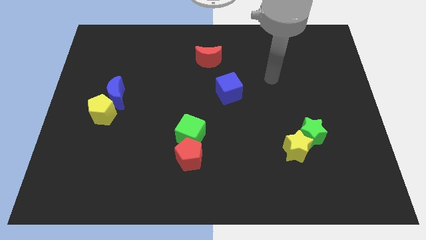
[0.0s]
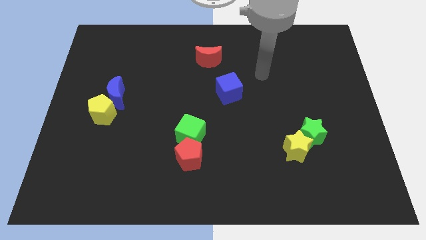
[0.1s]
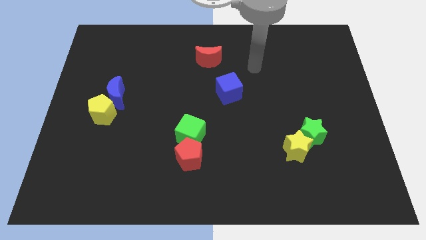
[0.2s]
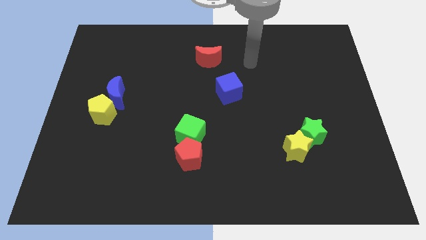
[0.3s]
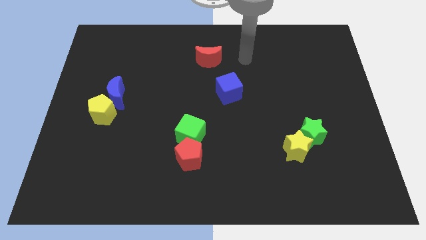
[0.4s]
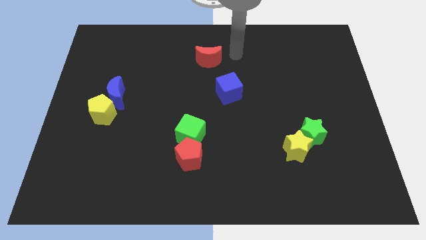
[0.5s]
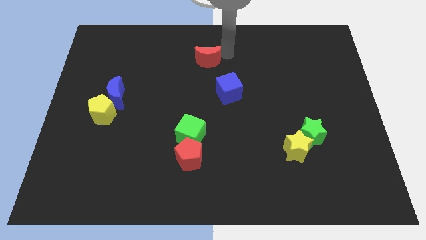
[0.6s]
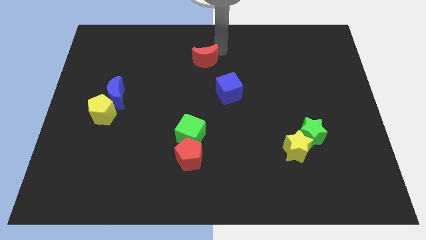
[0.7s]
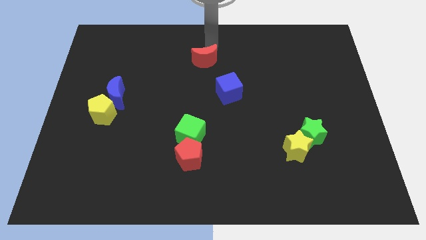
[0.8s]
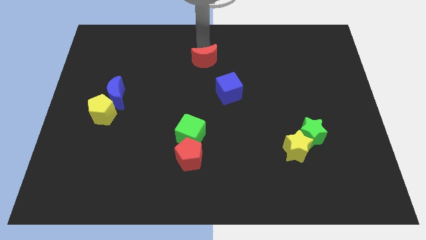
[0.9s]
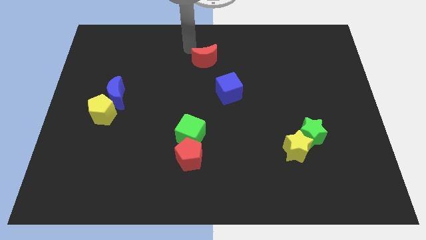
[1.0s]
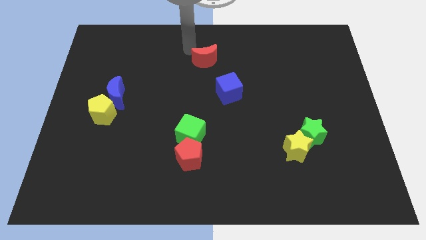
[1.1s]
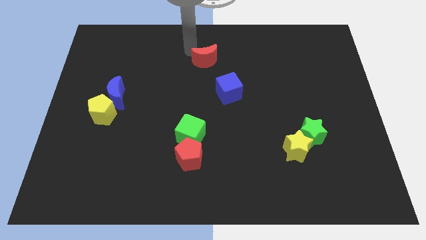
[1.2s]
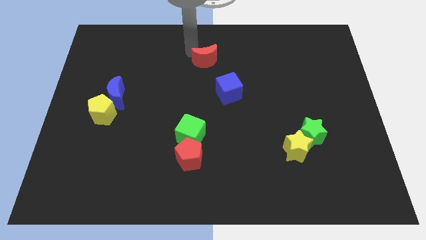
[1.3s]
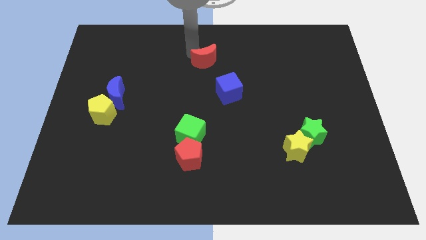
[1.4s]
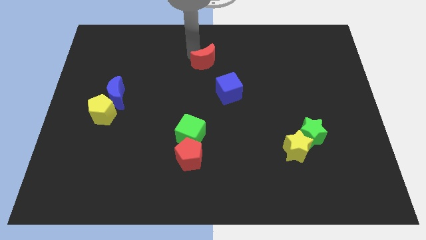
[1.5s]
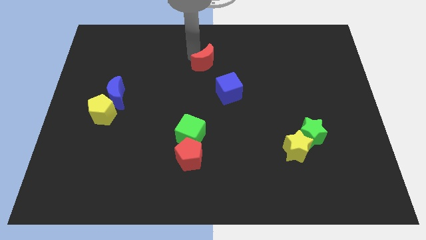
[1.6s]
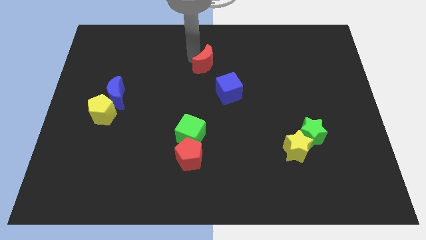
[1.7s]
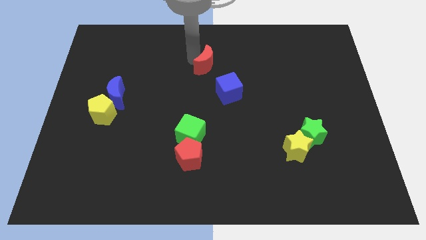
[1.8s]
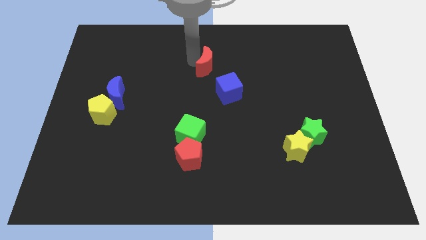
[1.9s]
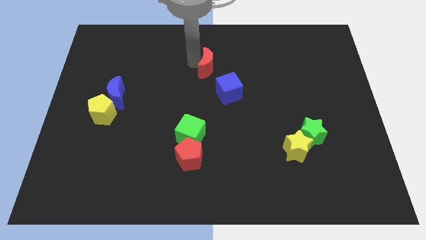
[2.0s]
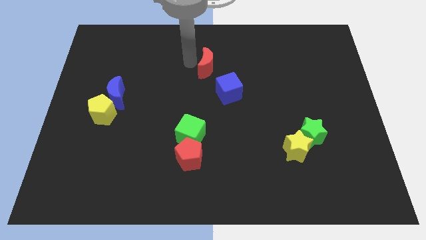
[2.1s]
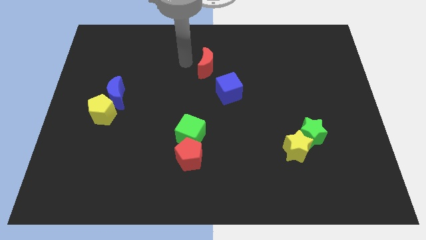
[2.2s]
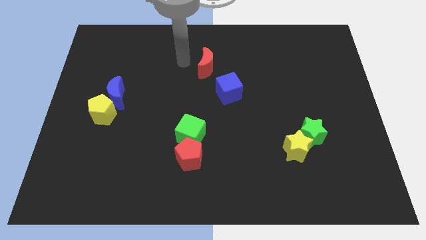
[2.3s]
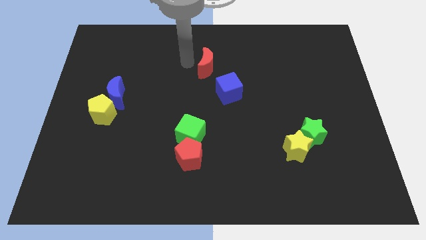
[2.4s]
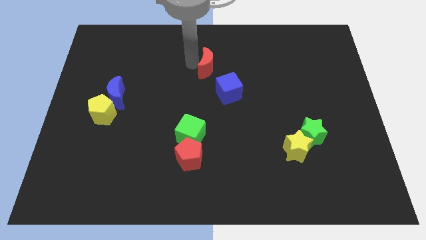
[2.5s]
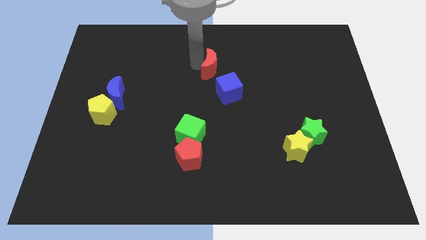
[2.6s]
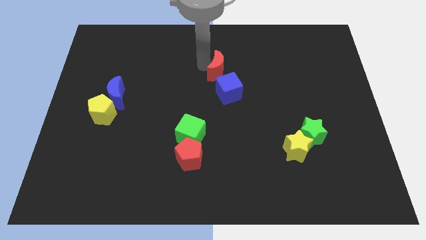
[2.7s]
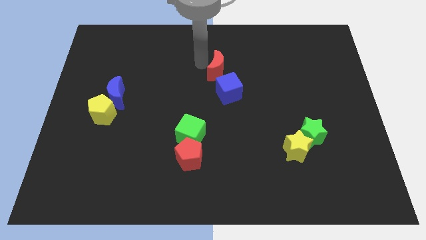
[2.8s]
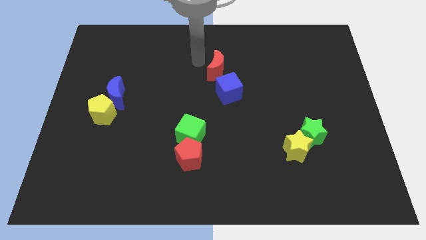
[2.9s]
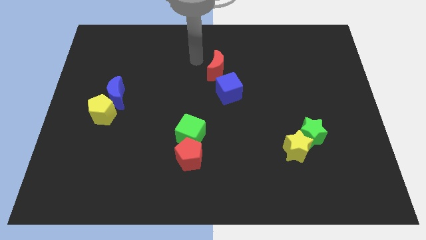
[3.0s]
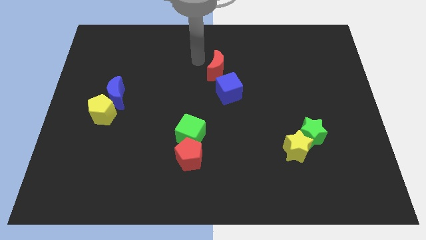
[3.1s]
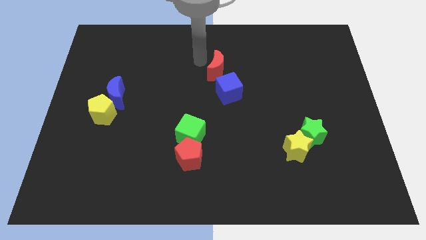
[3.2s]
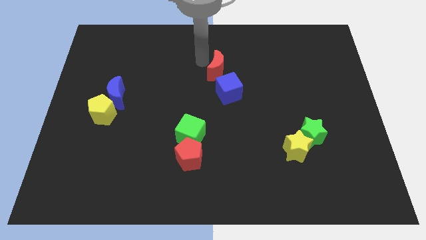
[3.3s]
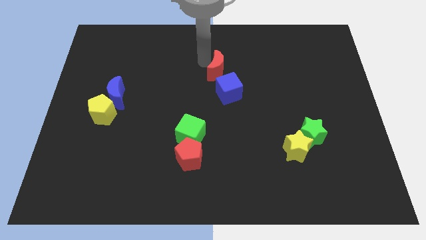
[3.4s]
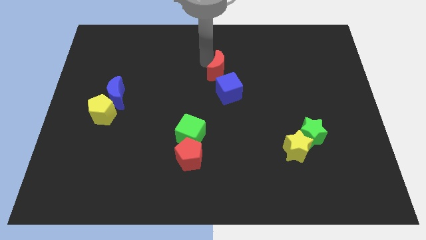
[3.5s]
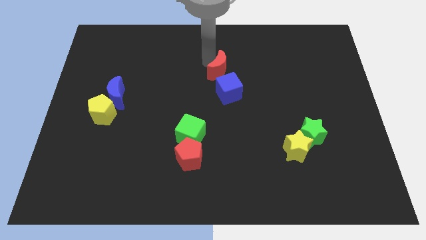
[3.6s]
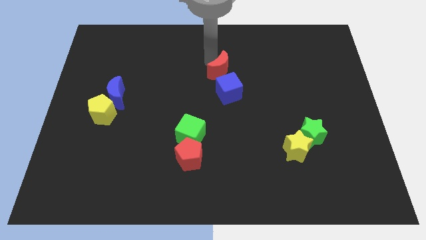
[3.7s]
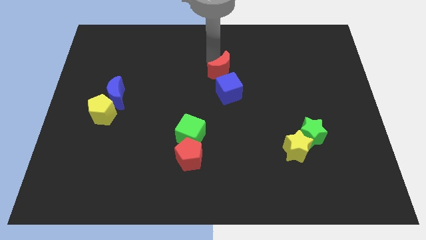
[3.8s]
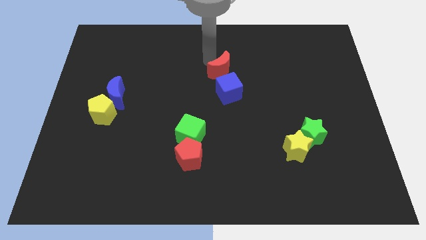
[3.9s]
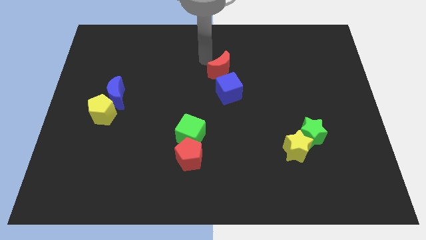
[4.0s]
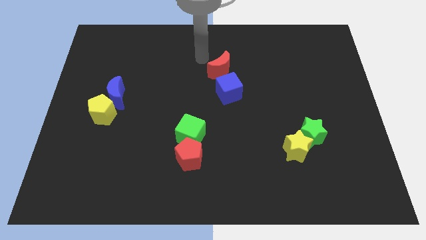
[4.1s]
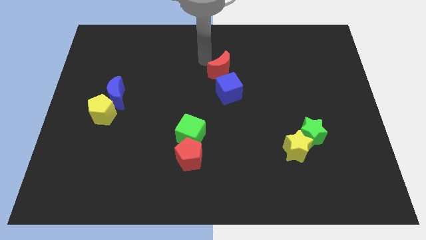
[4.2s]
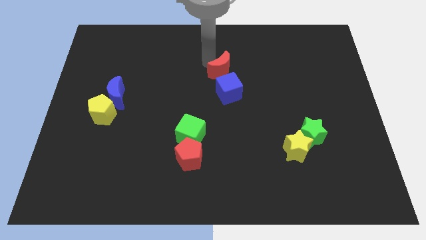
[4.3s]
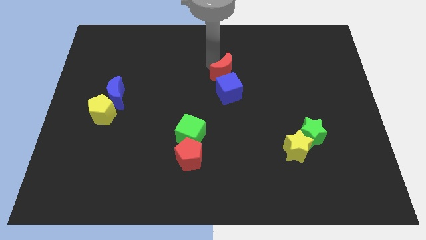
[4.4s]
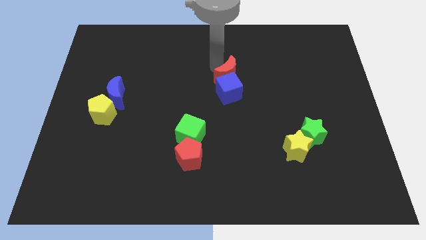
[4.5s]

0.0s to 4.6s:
move the red moon somewhat downwards and right

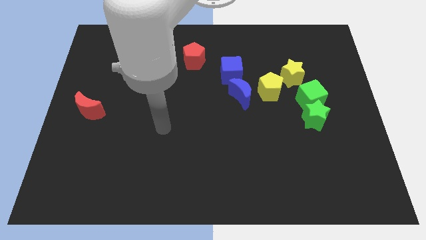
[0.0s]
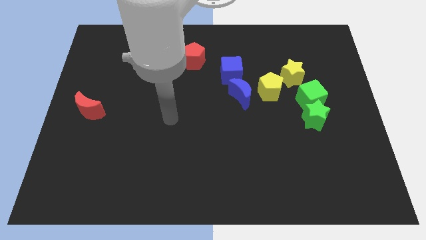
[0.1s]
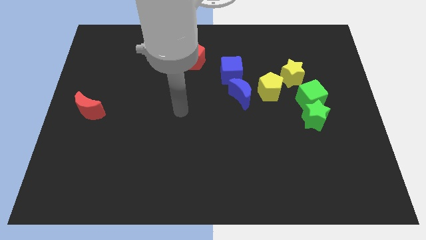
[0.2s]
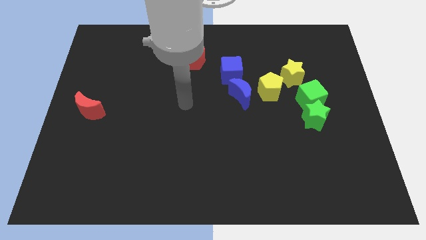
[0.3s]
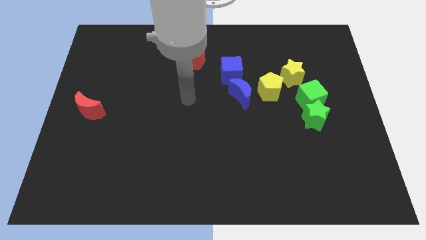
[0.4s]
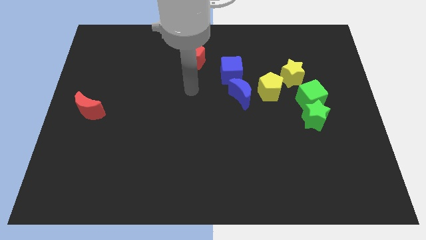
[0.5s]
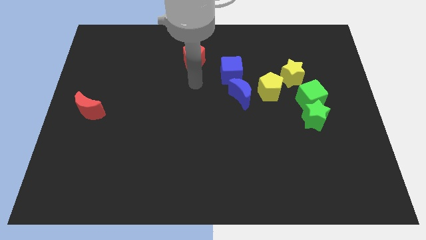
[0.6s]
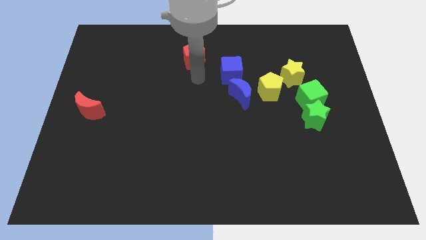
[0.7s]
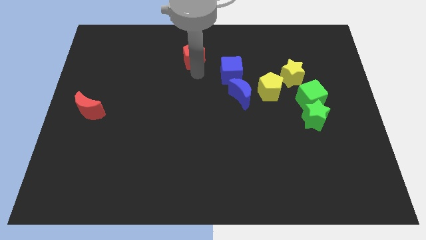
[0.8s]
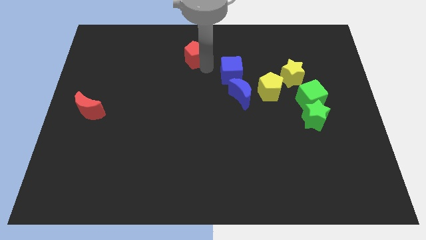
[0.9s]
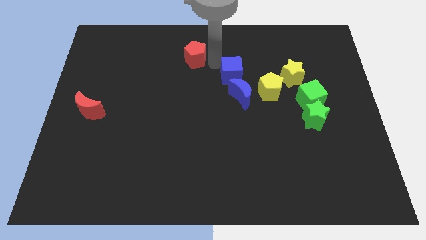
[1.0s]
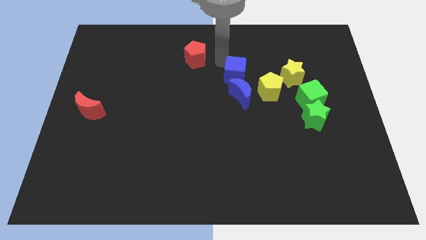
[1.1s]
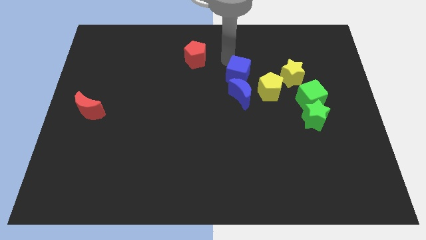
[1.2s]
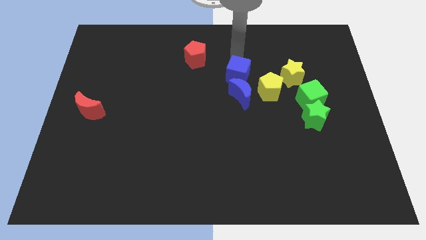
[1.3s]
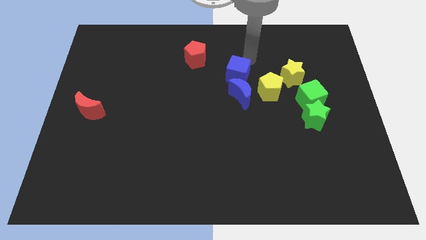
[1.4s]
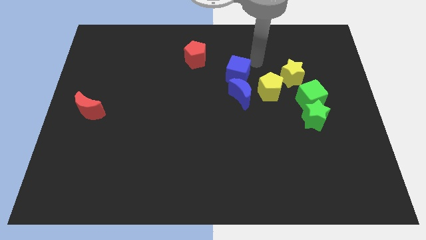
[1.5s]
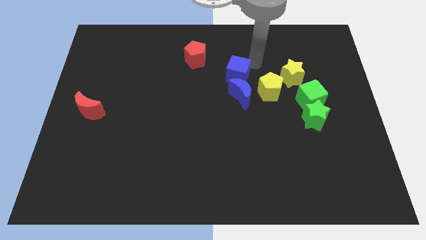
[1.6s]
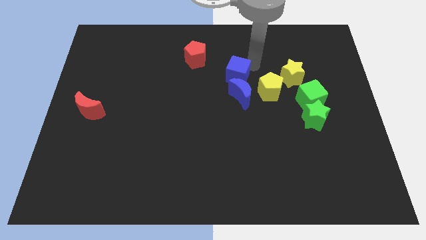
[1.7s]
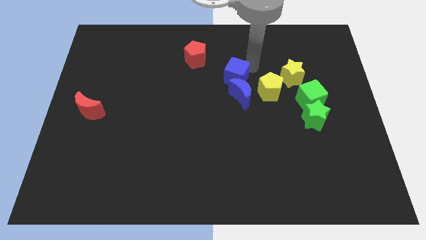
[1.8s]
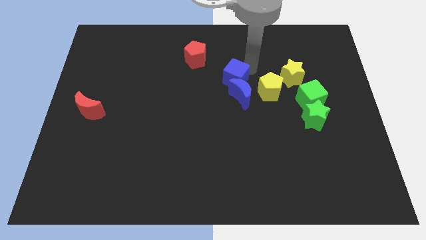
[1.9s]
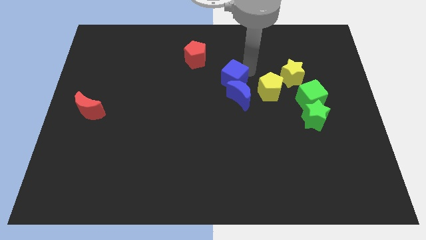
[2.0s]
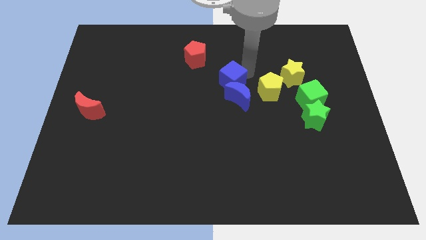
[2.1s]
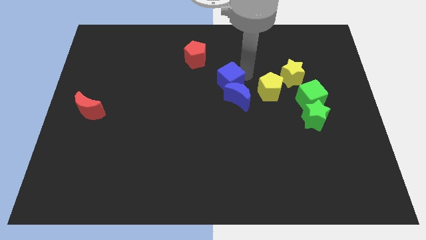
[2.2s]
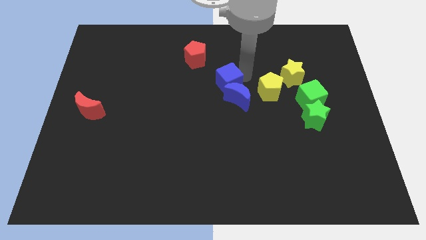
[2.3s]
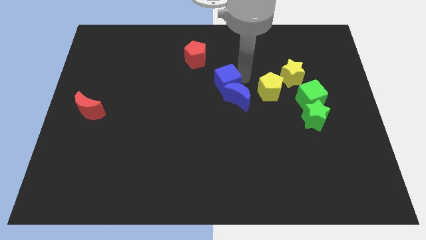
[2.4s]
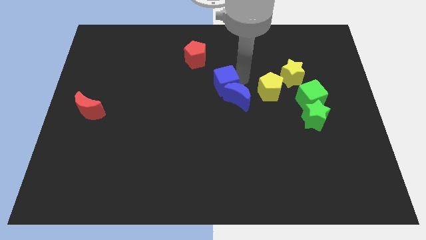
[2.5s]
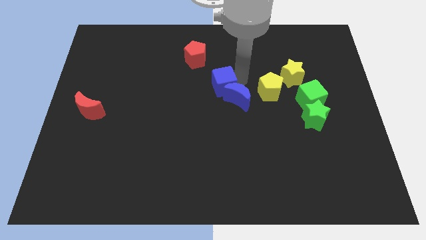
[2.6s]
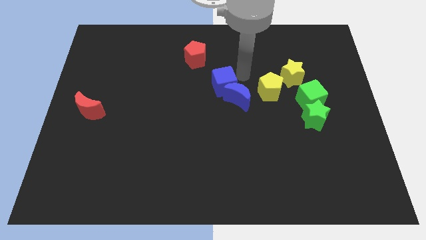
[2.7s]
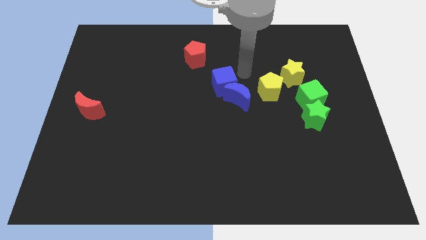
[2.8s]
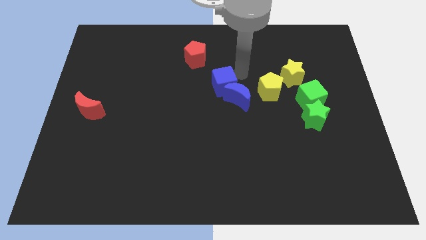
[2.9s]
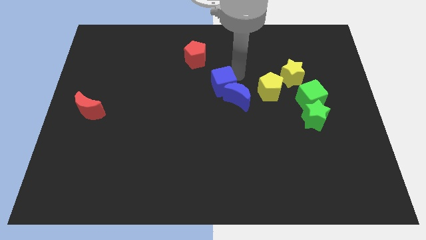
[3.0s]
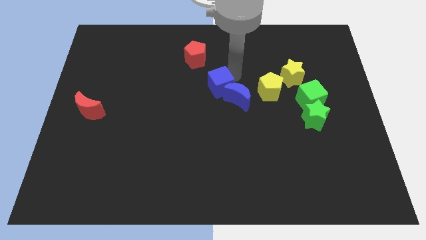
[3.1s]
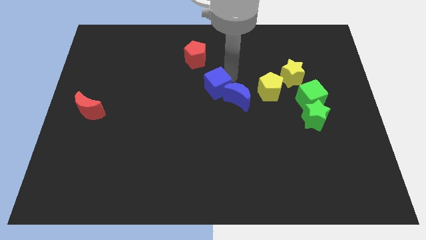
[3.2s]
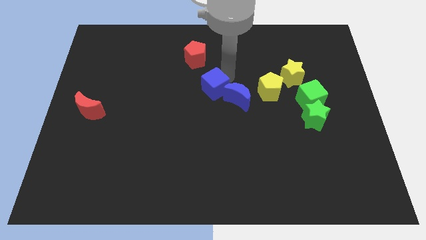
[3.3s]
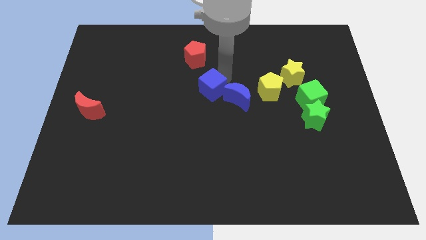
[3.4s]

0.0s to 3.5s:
slightly slide the blue cube down and then left
